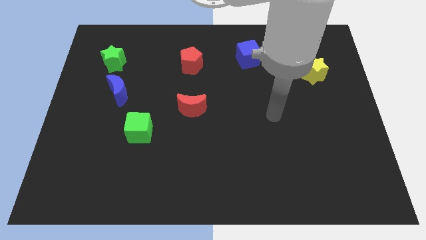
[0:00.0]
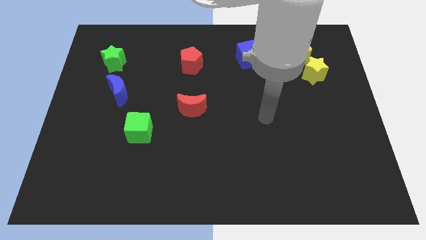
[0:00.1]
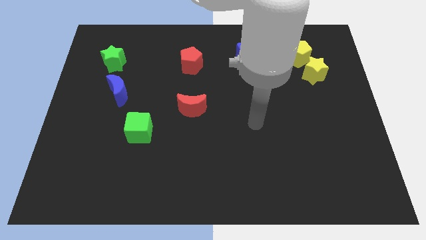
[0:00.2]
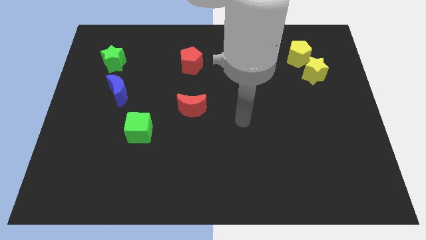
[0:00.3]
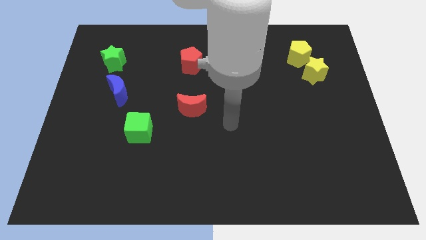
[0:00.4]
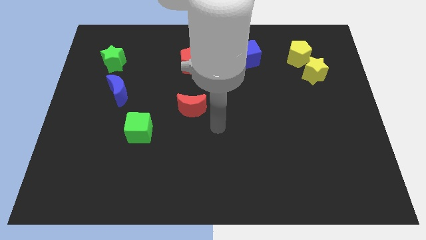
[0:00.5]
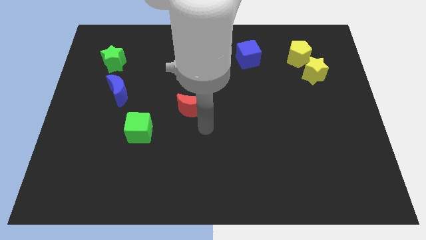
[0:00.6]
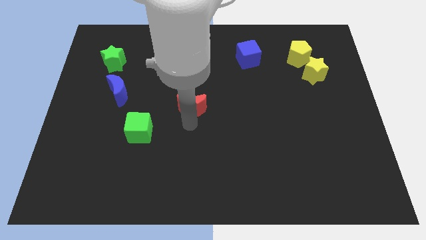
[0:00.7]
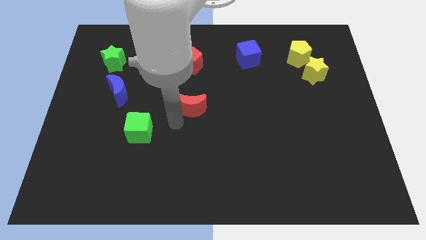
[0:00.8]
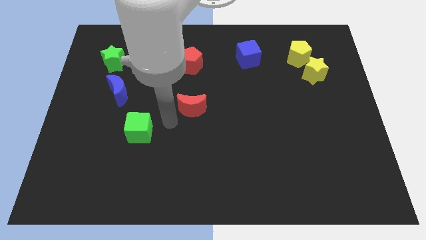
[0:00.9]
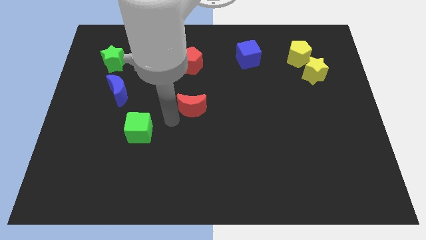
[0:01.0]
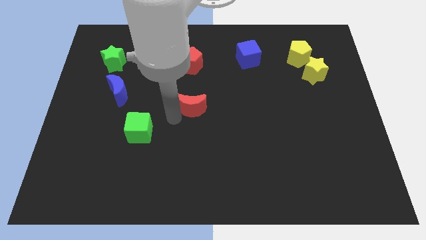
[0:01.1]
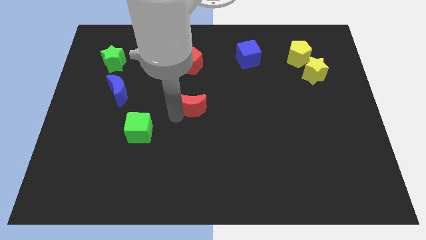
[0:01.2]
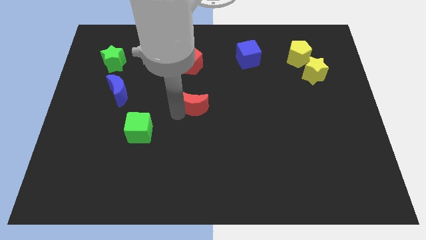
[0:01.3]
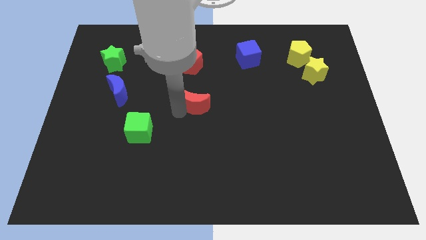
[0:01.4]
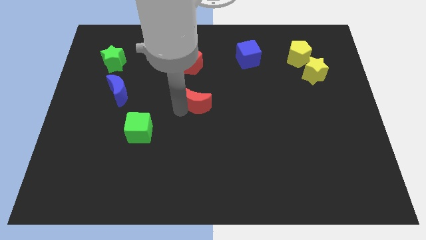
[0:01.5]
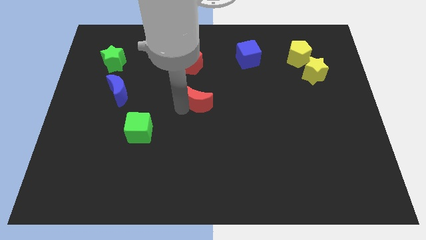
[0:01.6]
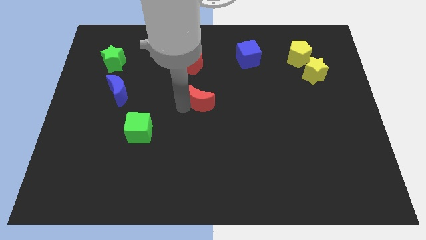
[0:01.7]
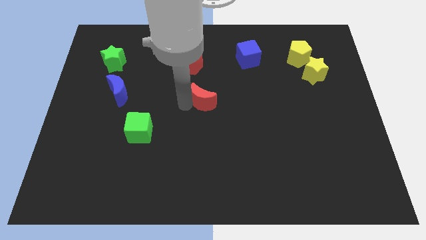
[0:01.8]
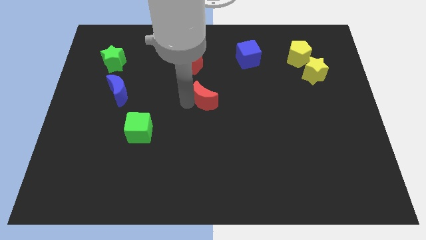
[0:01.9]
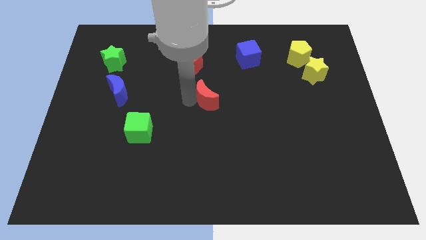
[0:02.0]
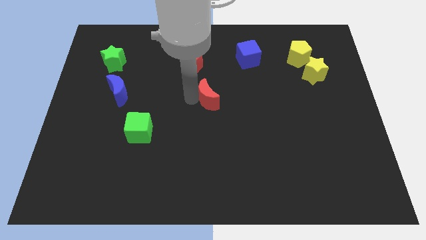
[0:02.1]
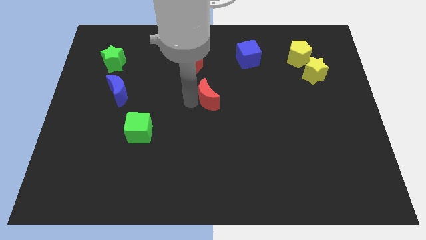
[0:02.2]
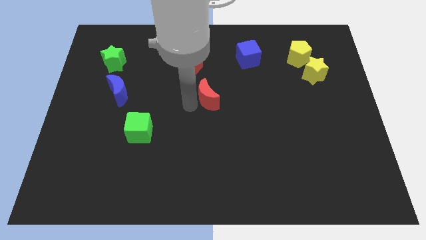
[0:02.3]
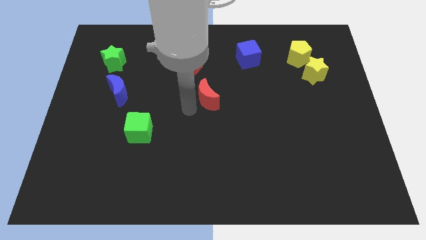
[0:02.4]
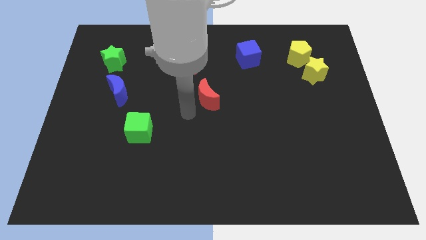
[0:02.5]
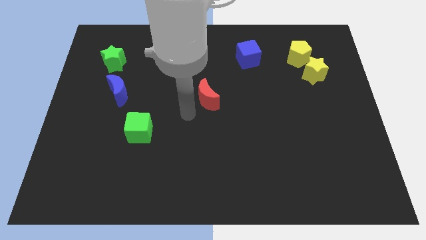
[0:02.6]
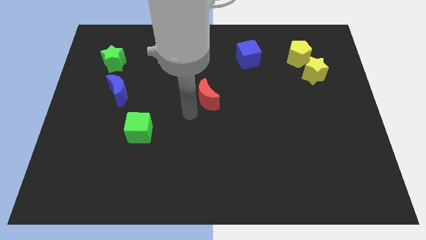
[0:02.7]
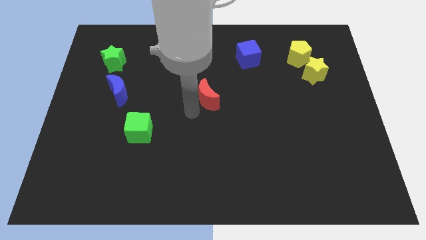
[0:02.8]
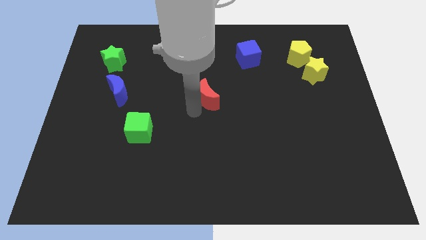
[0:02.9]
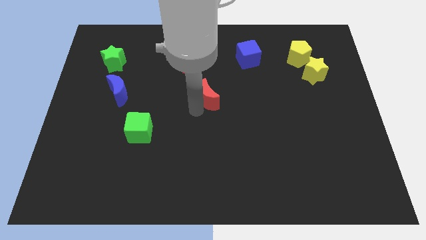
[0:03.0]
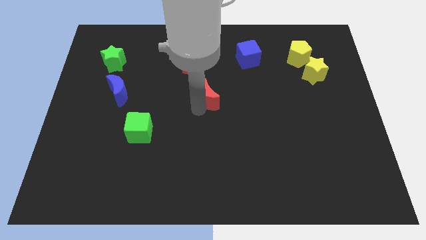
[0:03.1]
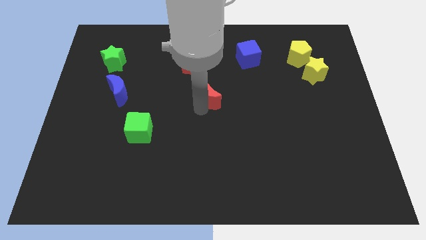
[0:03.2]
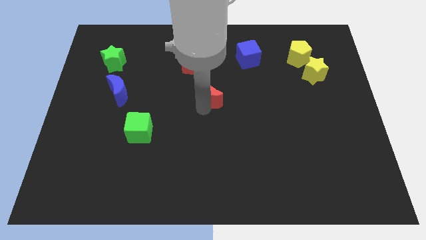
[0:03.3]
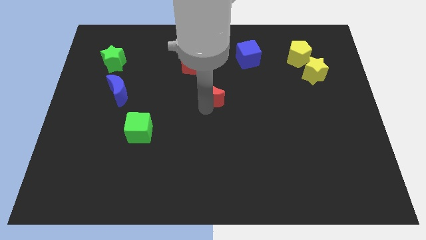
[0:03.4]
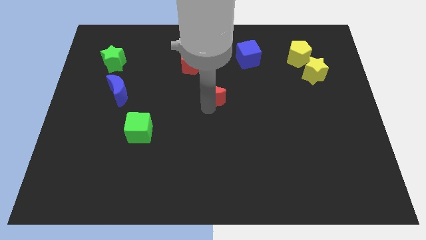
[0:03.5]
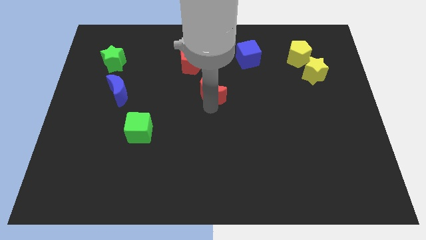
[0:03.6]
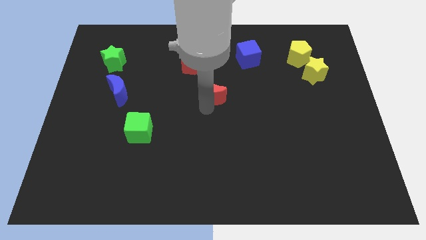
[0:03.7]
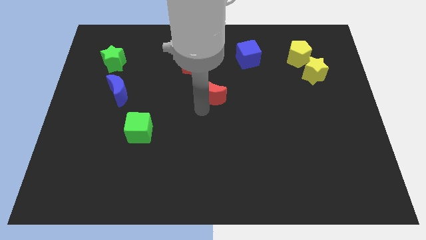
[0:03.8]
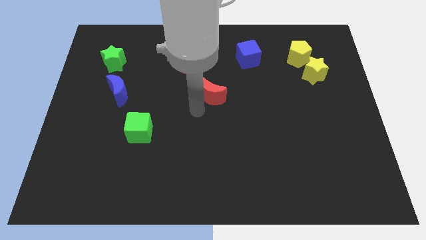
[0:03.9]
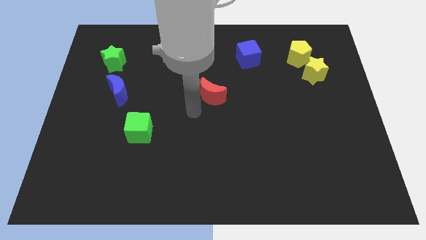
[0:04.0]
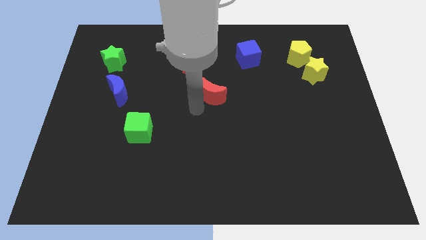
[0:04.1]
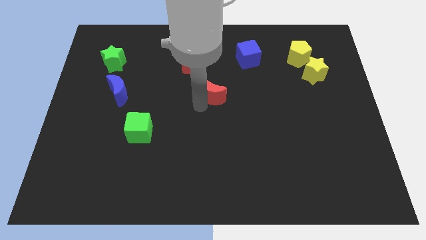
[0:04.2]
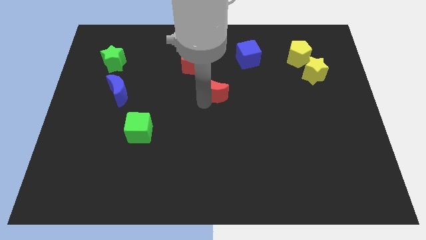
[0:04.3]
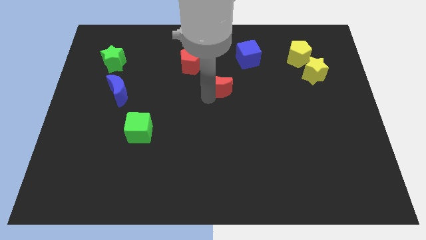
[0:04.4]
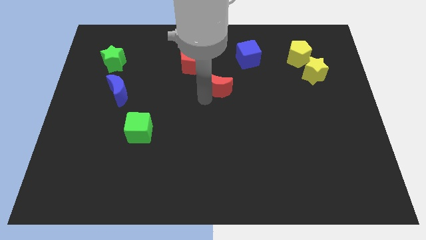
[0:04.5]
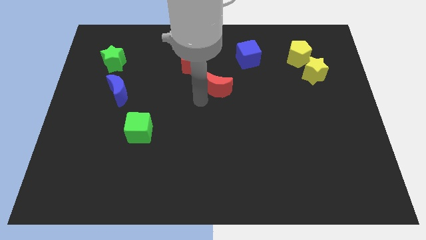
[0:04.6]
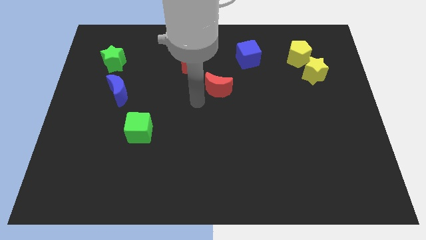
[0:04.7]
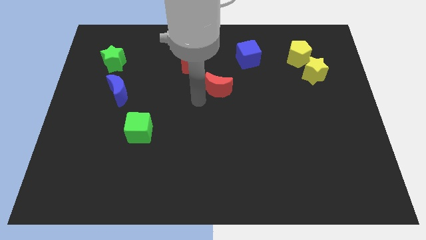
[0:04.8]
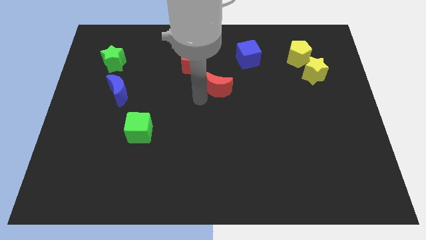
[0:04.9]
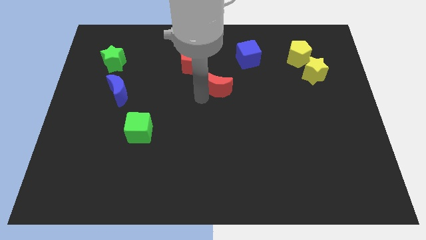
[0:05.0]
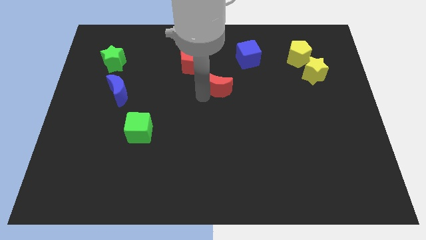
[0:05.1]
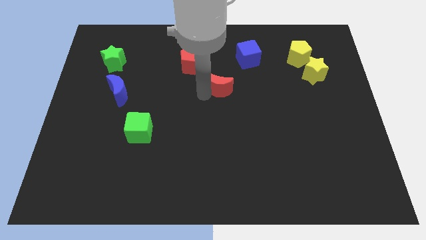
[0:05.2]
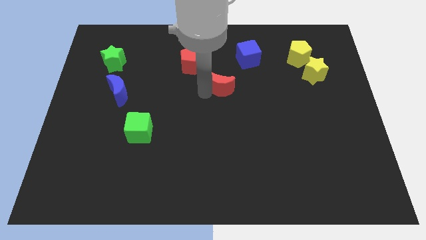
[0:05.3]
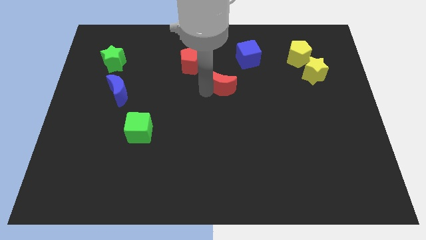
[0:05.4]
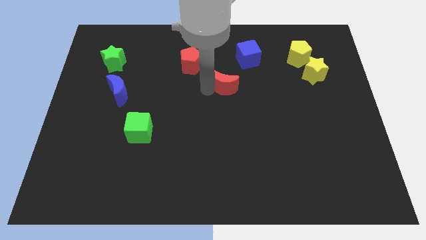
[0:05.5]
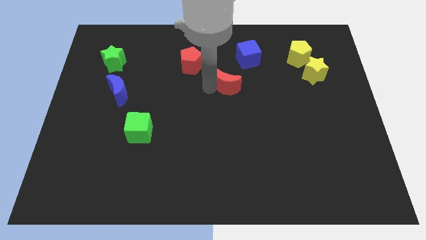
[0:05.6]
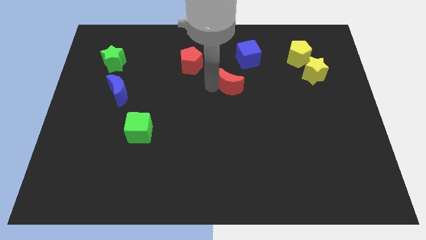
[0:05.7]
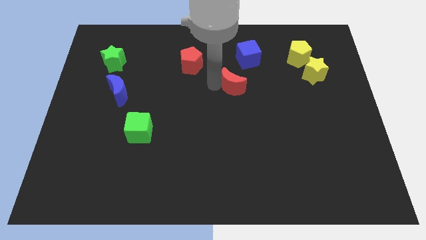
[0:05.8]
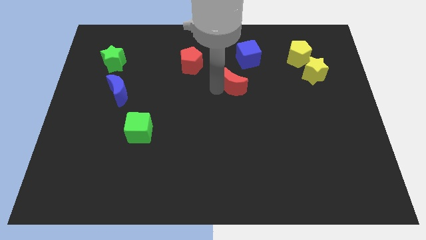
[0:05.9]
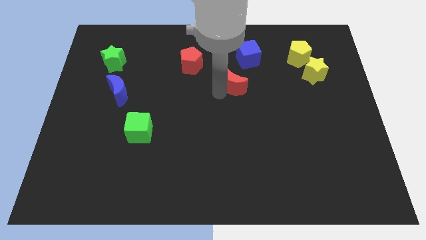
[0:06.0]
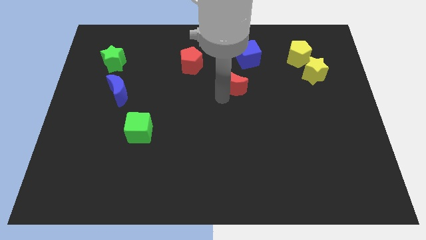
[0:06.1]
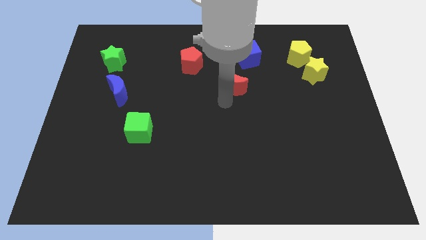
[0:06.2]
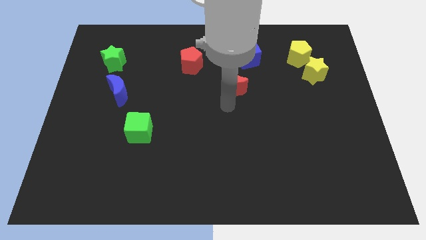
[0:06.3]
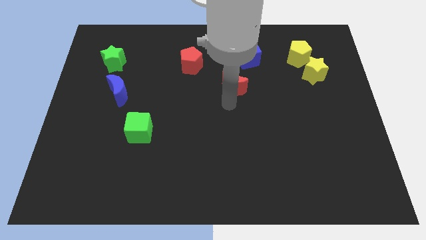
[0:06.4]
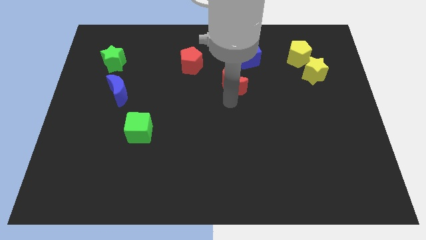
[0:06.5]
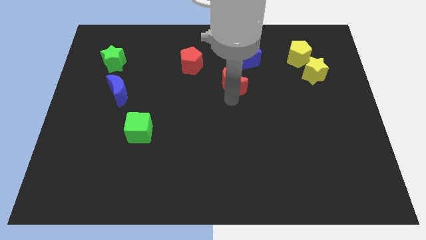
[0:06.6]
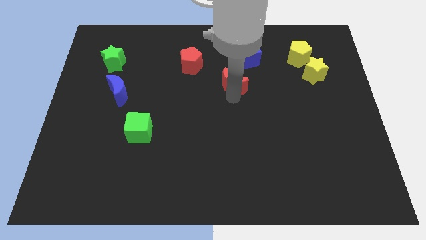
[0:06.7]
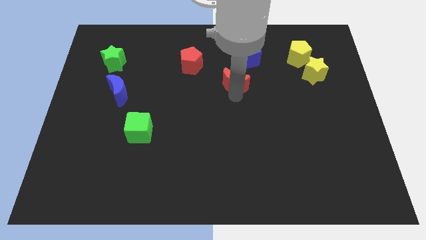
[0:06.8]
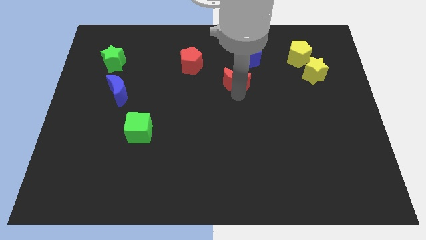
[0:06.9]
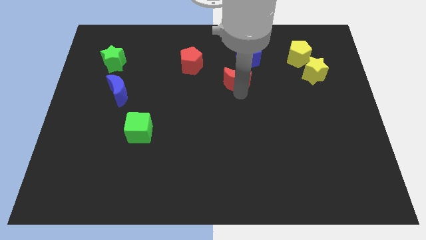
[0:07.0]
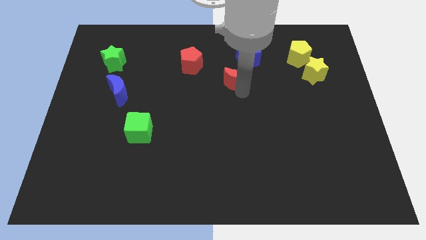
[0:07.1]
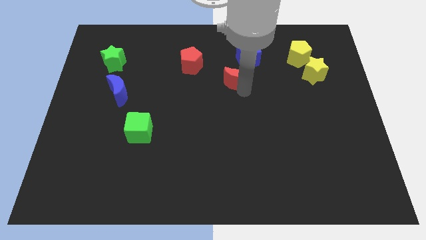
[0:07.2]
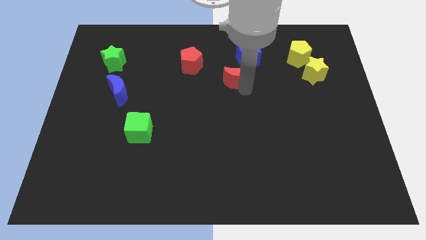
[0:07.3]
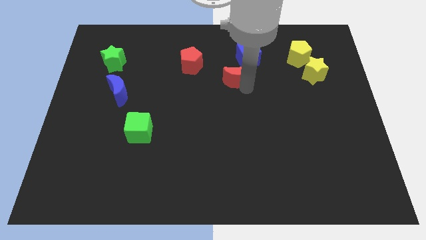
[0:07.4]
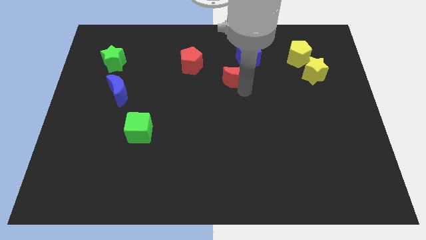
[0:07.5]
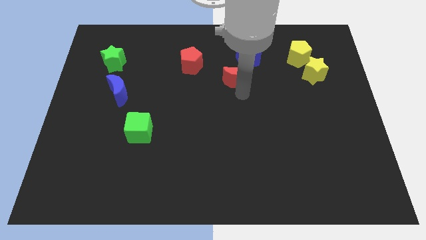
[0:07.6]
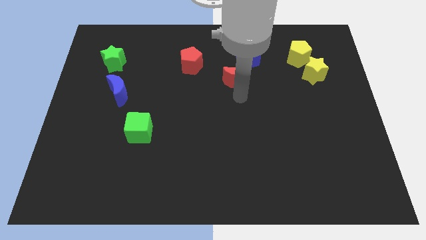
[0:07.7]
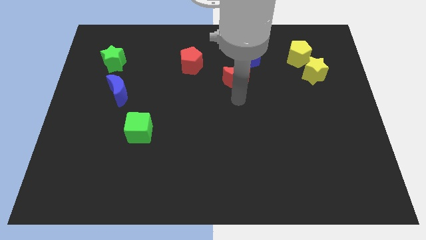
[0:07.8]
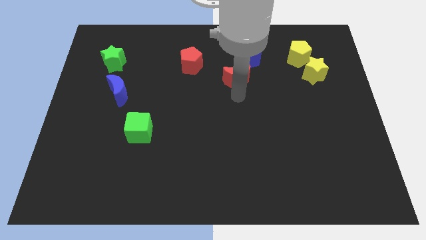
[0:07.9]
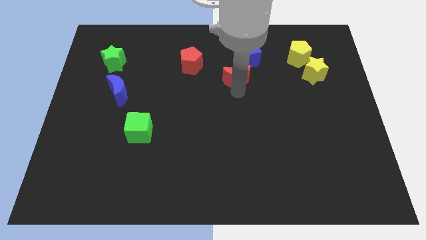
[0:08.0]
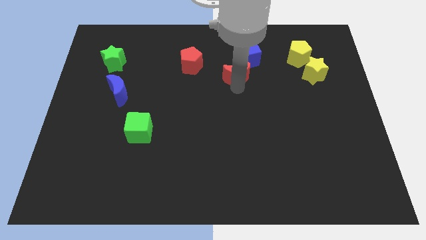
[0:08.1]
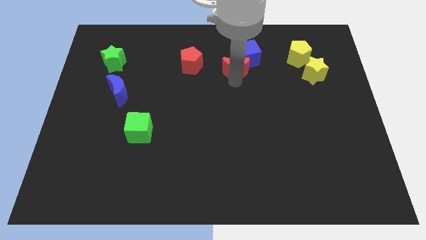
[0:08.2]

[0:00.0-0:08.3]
slide the red moon next to the blue cube
